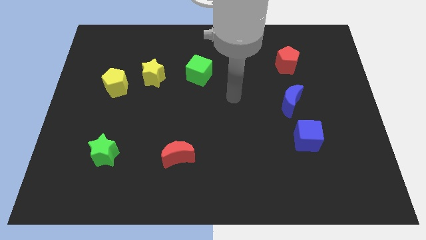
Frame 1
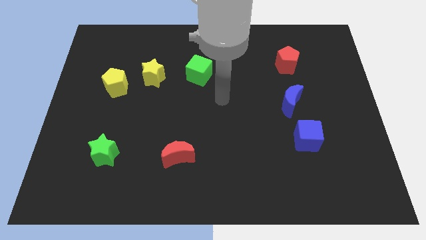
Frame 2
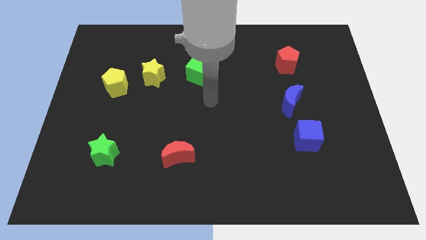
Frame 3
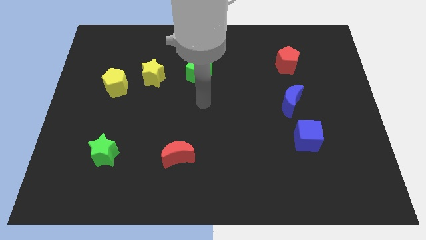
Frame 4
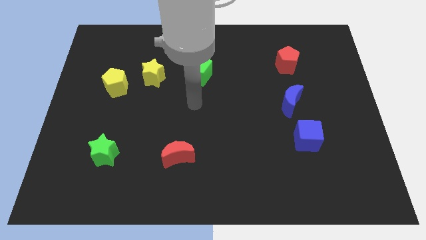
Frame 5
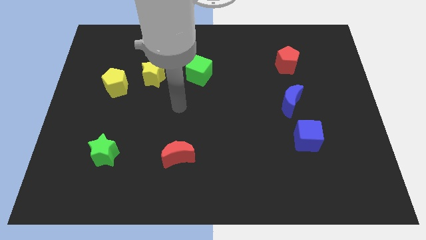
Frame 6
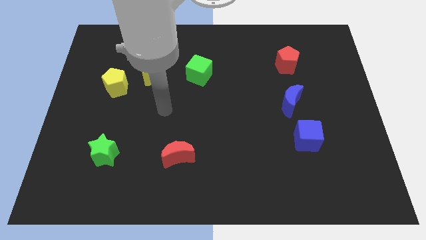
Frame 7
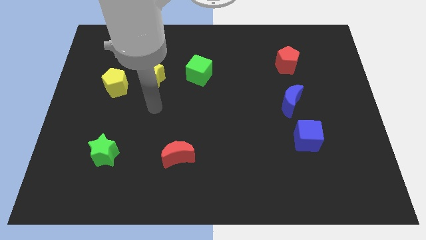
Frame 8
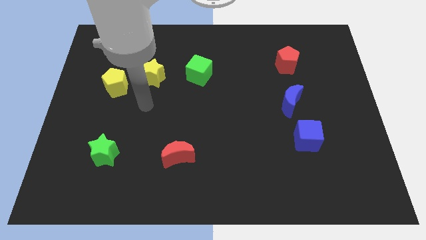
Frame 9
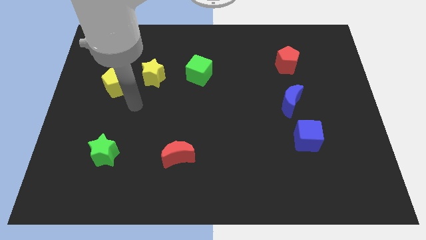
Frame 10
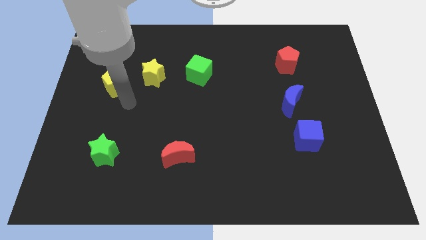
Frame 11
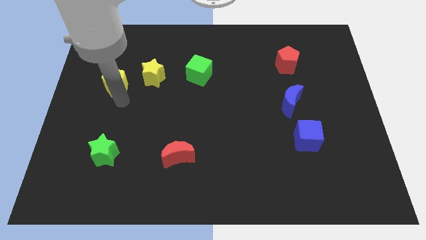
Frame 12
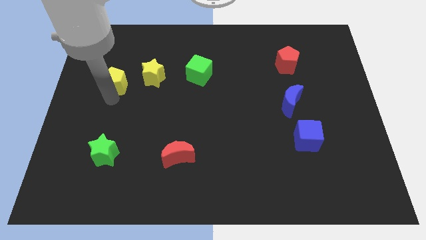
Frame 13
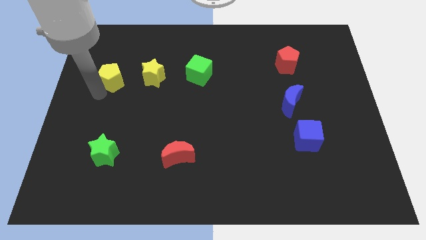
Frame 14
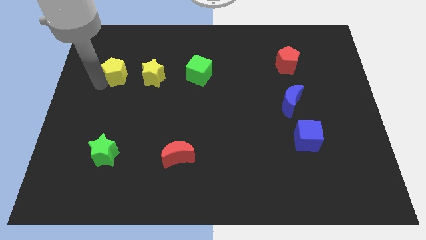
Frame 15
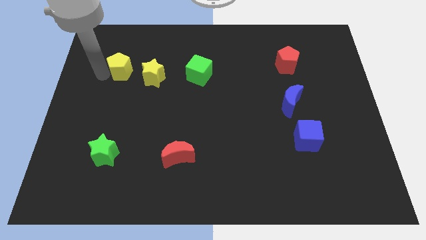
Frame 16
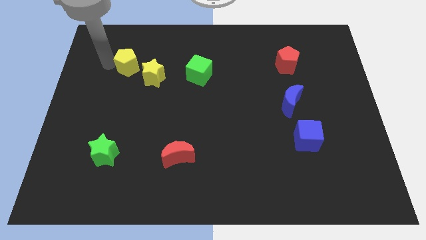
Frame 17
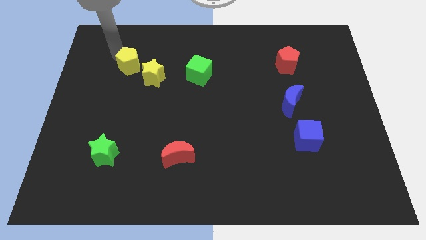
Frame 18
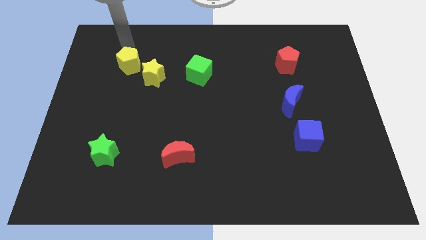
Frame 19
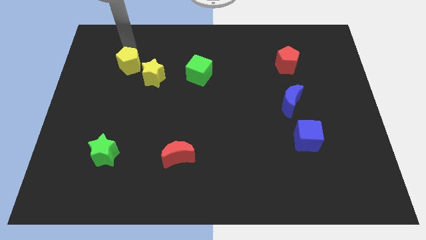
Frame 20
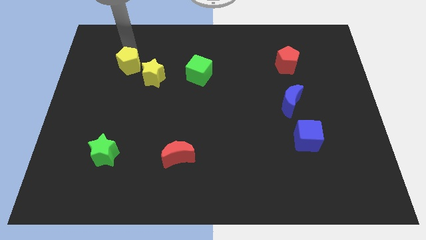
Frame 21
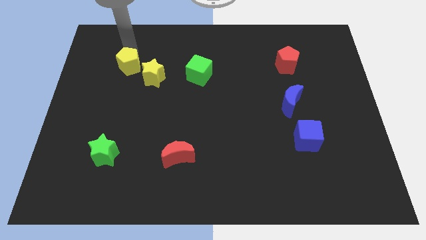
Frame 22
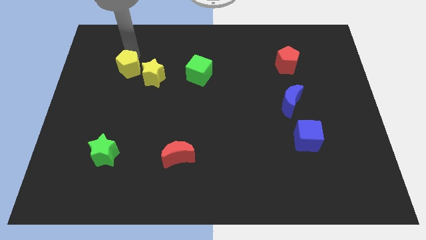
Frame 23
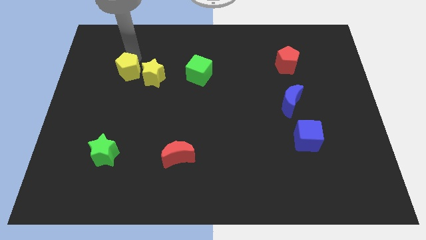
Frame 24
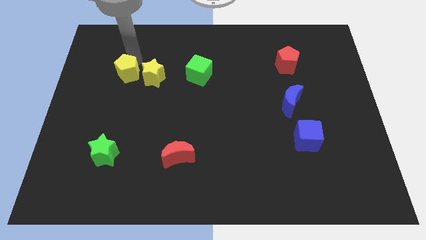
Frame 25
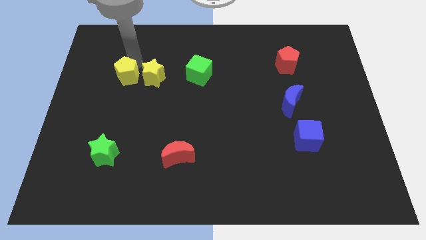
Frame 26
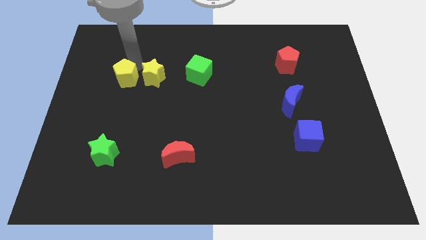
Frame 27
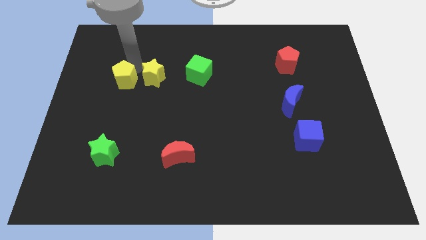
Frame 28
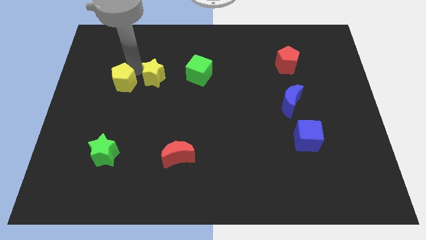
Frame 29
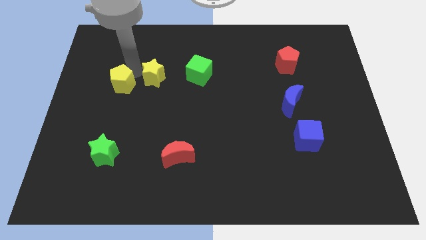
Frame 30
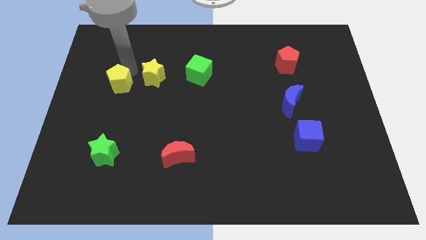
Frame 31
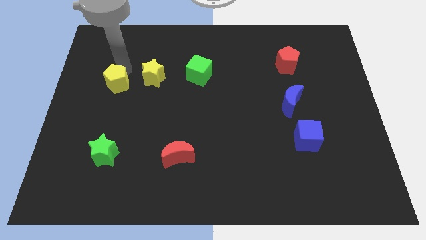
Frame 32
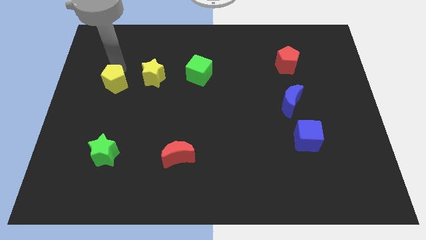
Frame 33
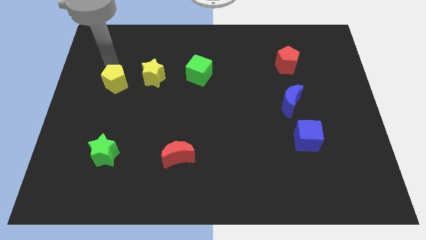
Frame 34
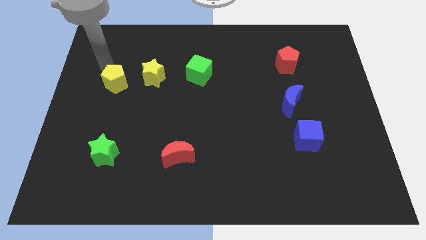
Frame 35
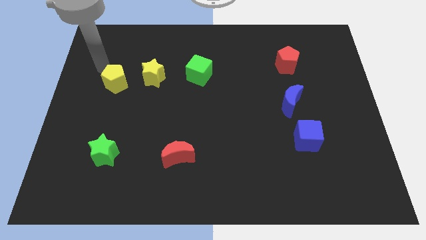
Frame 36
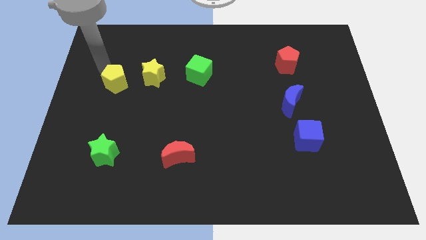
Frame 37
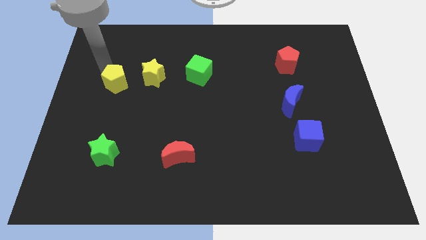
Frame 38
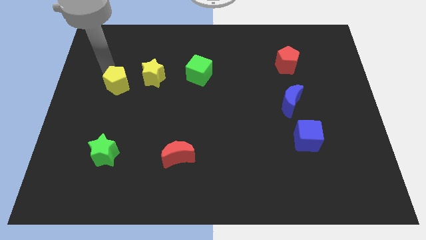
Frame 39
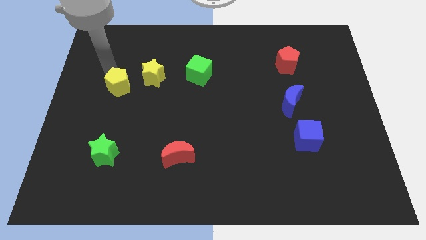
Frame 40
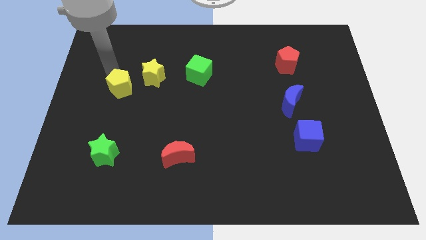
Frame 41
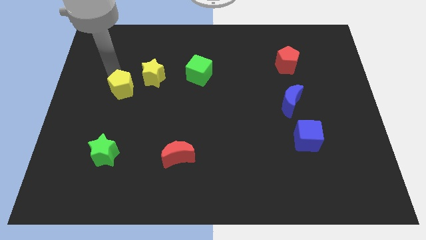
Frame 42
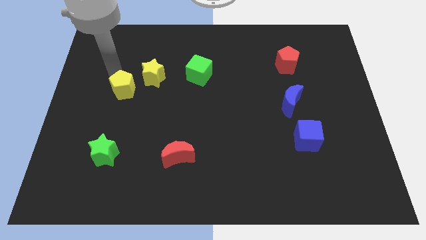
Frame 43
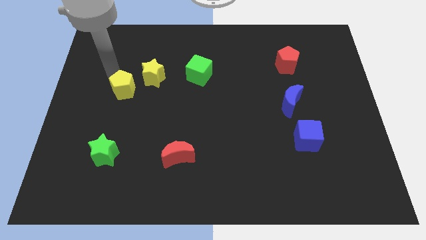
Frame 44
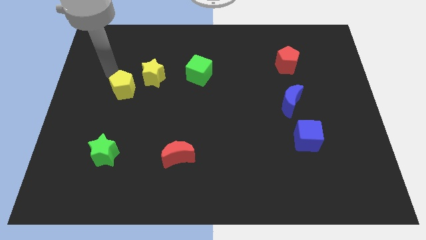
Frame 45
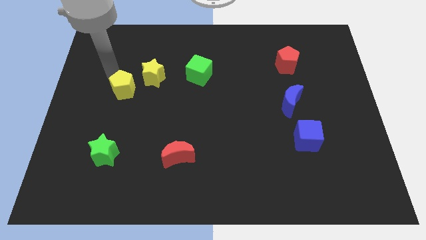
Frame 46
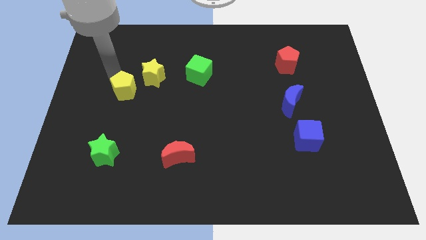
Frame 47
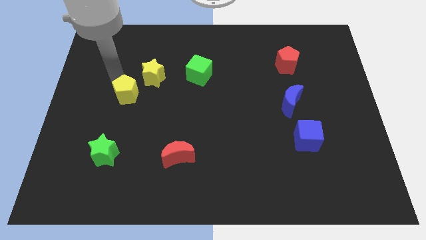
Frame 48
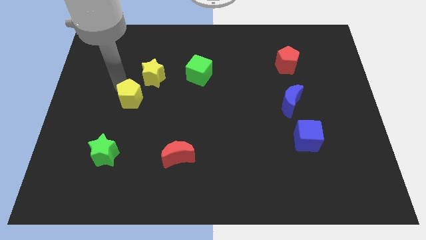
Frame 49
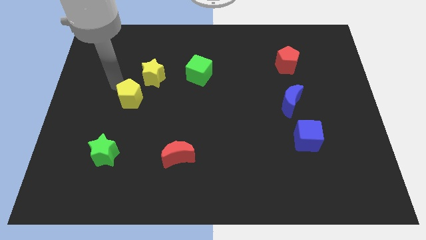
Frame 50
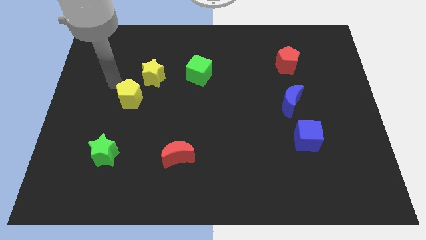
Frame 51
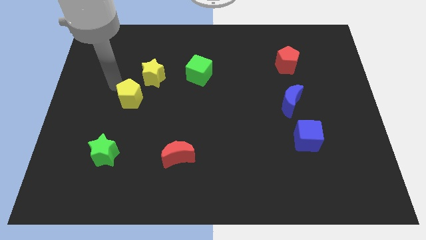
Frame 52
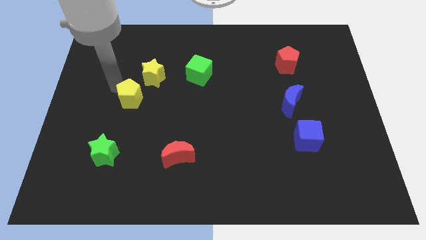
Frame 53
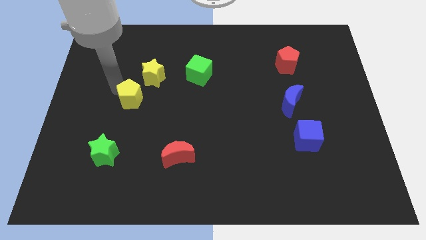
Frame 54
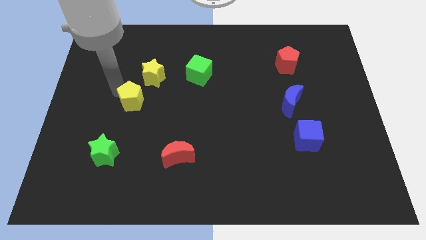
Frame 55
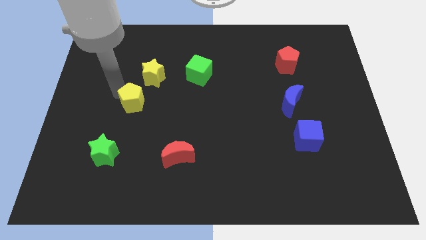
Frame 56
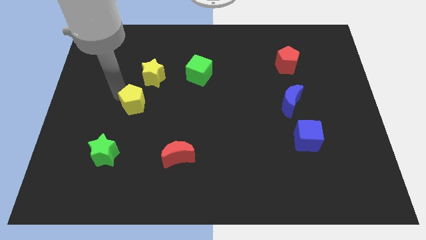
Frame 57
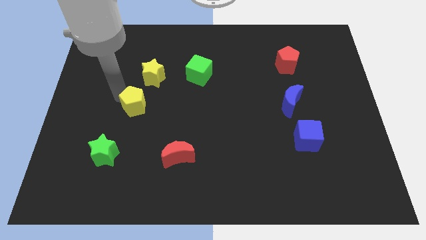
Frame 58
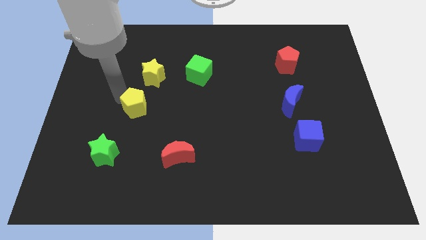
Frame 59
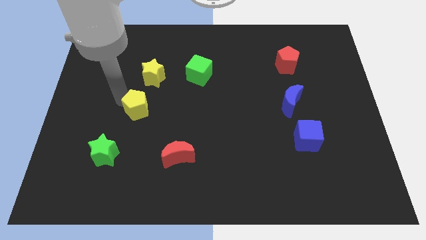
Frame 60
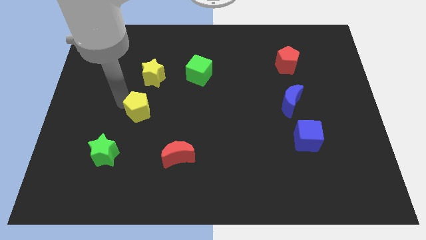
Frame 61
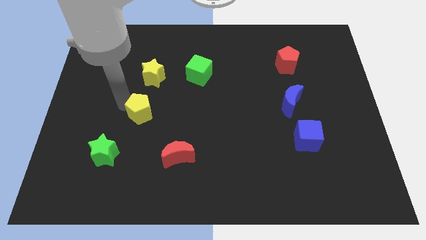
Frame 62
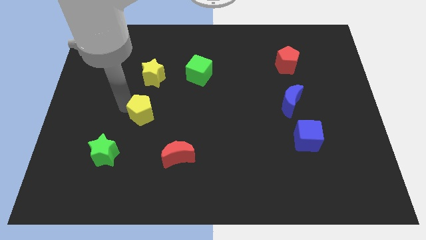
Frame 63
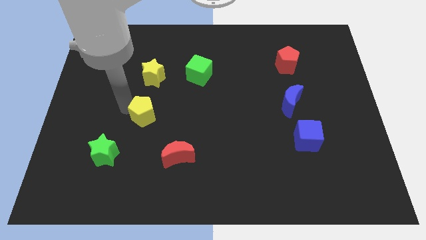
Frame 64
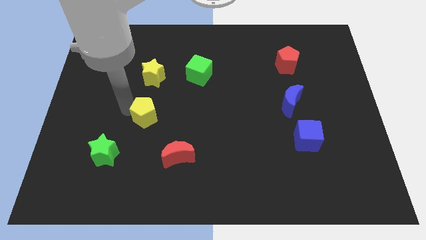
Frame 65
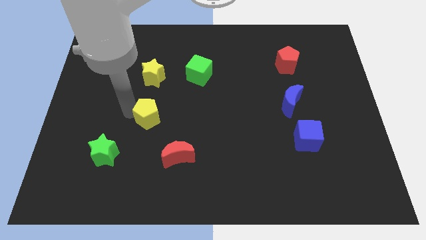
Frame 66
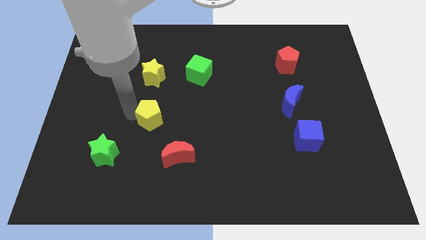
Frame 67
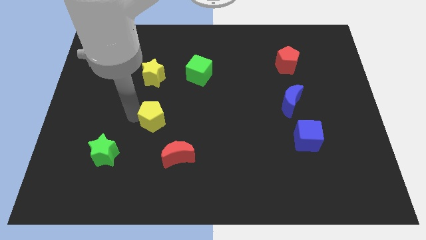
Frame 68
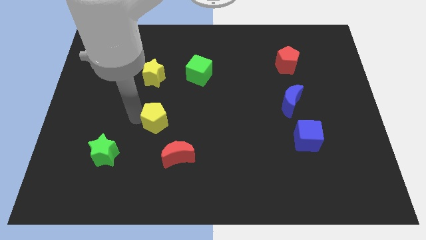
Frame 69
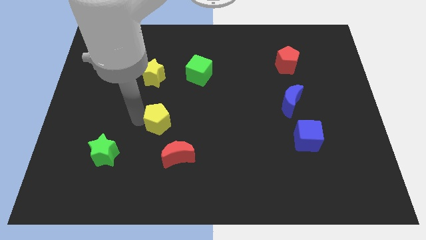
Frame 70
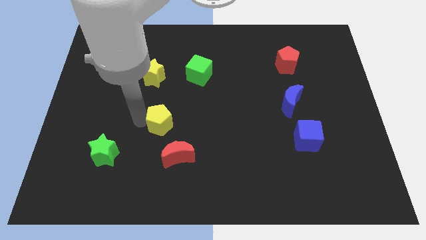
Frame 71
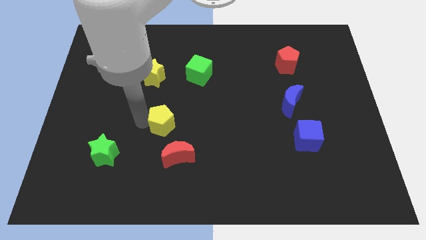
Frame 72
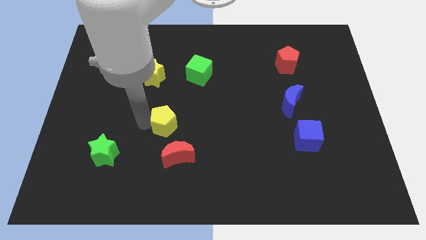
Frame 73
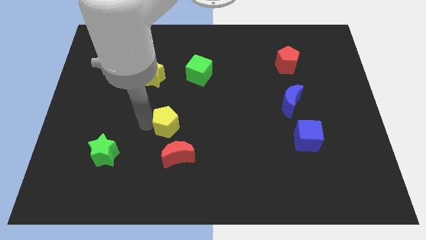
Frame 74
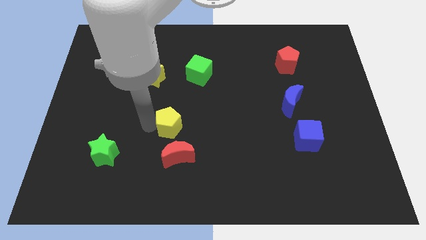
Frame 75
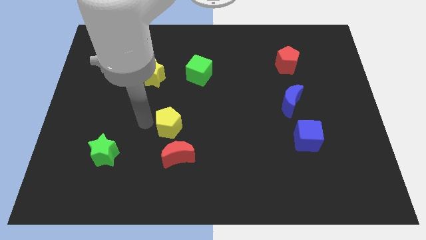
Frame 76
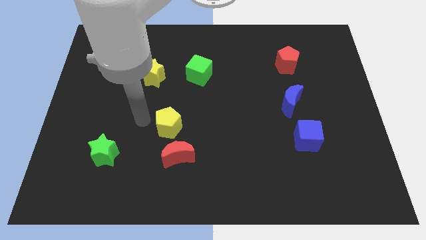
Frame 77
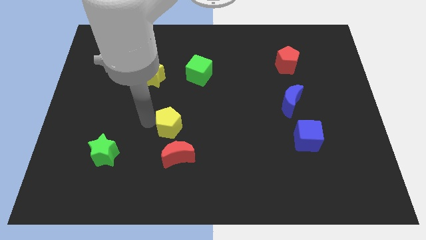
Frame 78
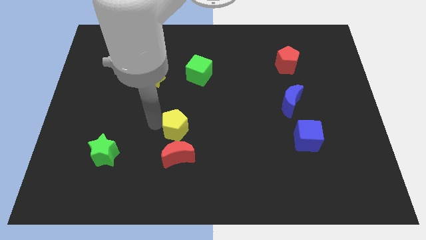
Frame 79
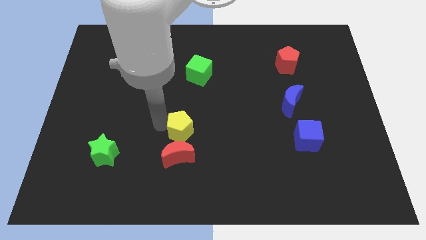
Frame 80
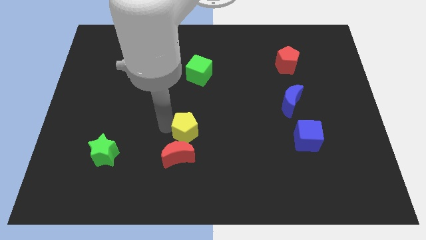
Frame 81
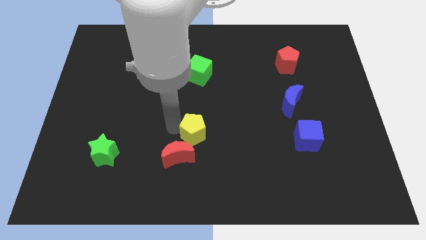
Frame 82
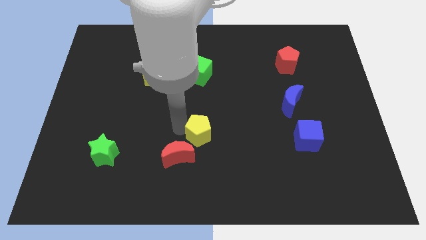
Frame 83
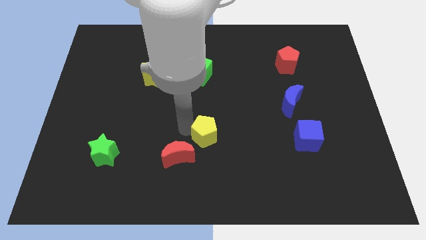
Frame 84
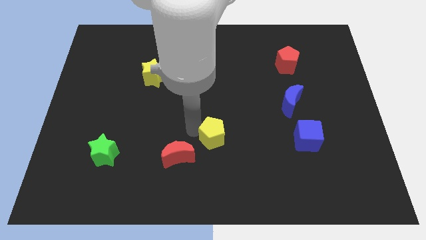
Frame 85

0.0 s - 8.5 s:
slide the yellow pentagon to the right of the red moon
